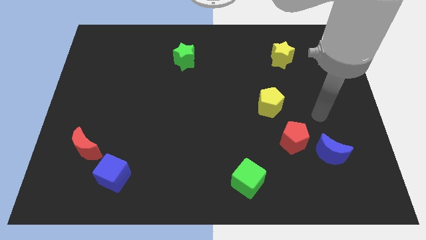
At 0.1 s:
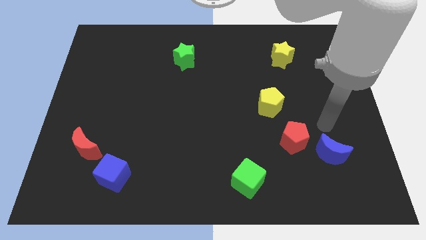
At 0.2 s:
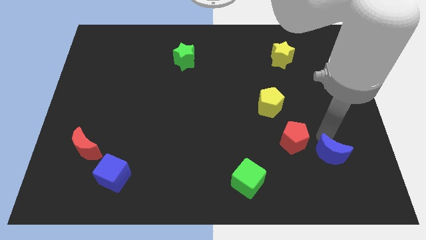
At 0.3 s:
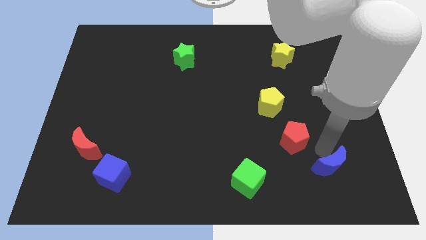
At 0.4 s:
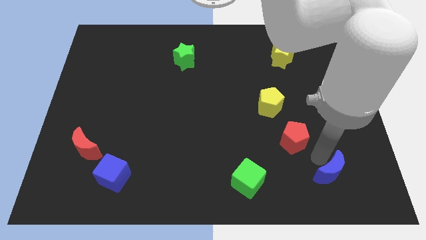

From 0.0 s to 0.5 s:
separate the red pentagon from the blue moon

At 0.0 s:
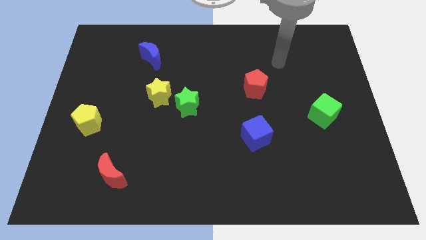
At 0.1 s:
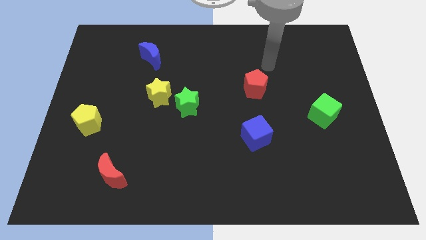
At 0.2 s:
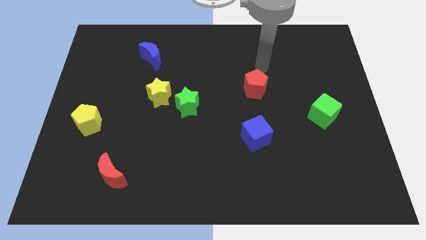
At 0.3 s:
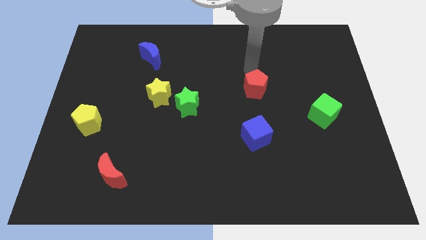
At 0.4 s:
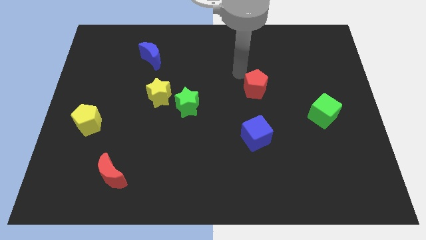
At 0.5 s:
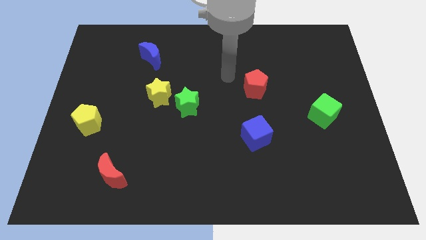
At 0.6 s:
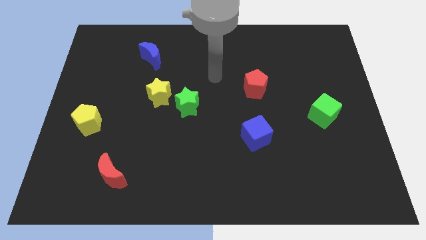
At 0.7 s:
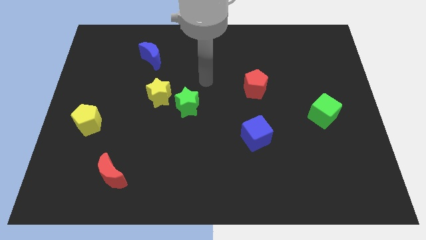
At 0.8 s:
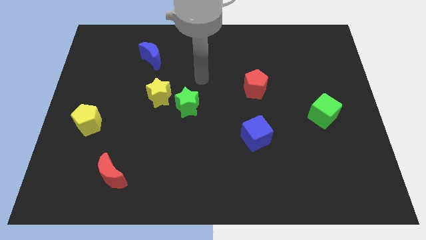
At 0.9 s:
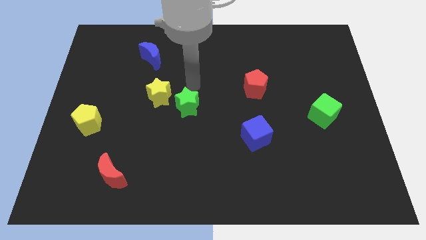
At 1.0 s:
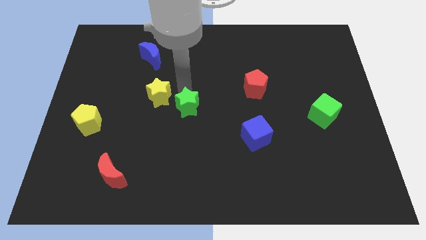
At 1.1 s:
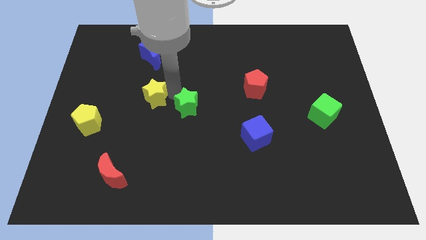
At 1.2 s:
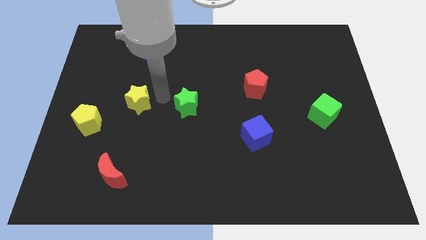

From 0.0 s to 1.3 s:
move the green star away from the yellow star

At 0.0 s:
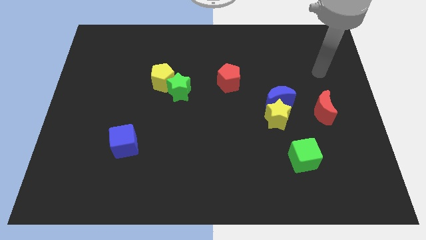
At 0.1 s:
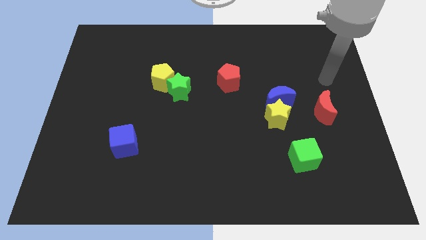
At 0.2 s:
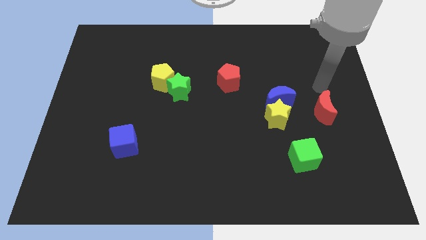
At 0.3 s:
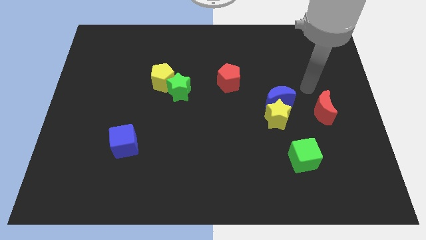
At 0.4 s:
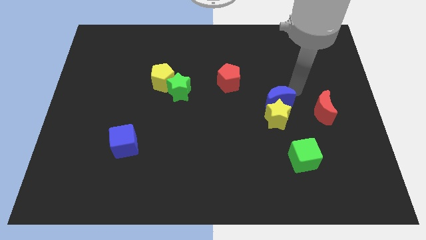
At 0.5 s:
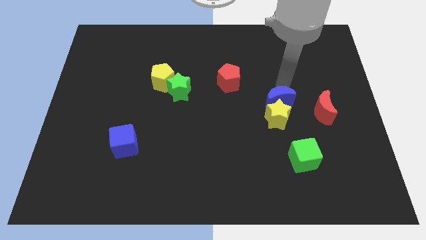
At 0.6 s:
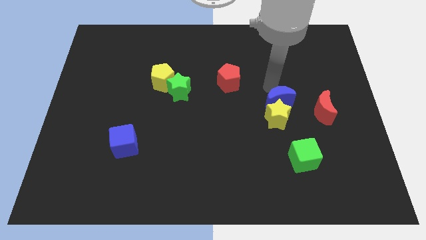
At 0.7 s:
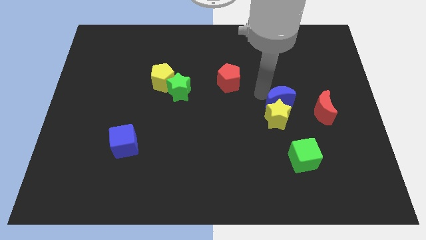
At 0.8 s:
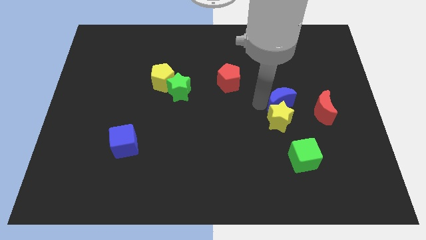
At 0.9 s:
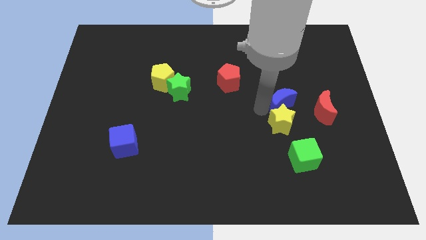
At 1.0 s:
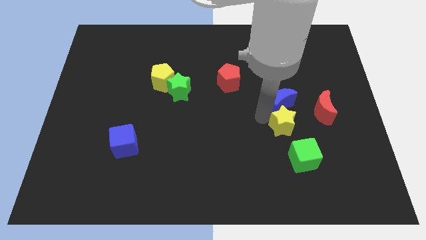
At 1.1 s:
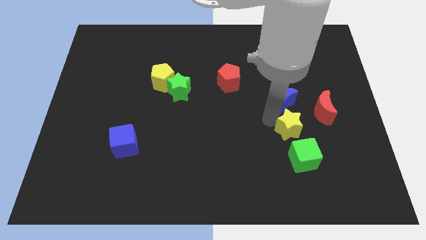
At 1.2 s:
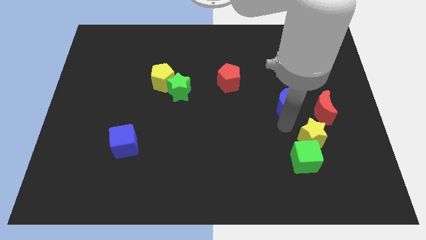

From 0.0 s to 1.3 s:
separate the blue moon from the yellow star

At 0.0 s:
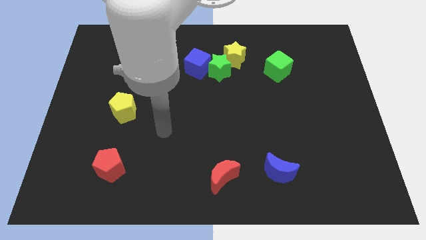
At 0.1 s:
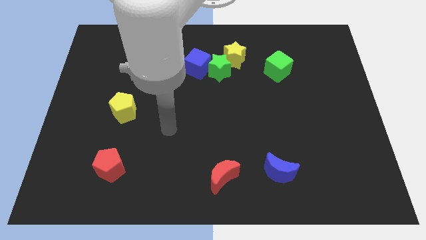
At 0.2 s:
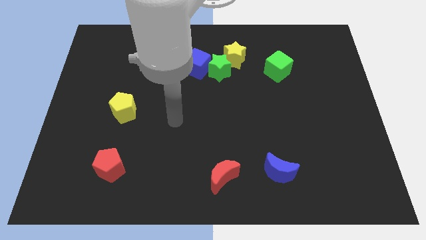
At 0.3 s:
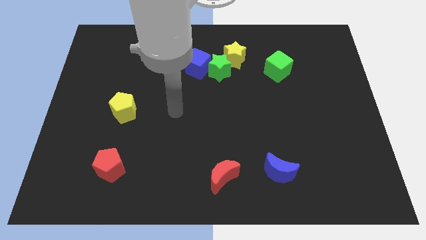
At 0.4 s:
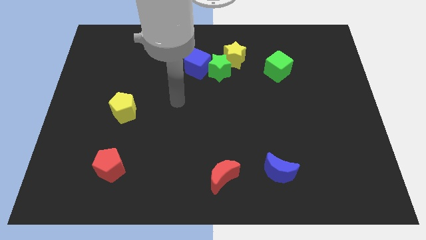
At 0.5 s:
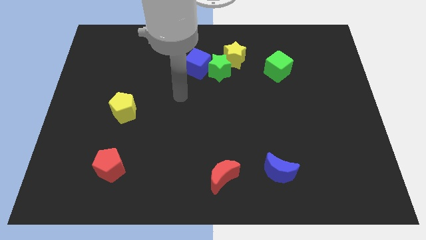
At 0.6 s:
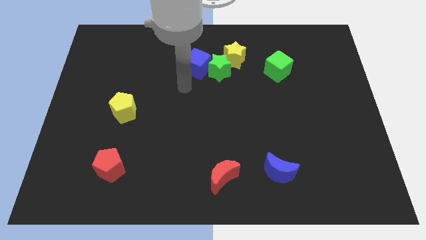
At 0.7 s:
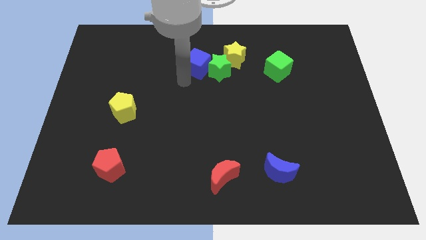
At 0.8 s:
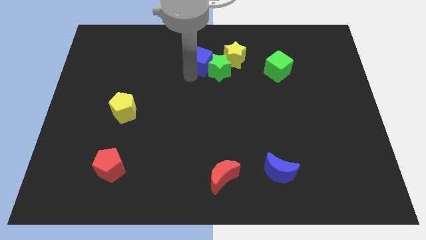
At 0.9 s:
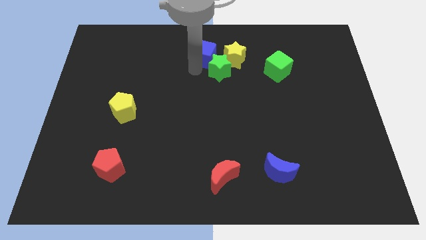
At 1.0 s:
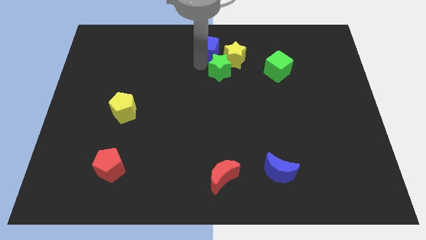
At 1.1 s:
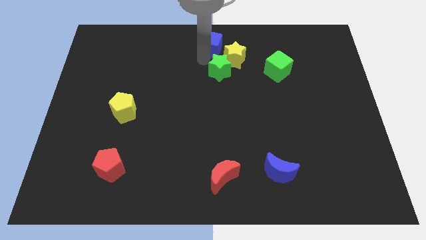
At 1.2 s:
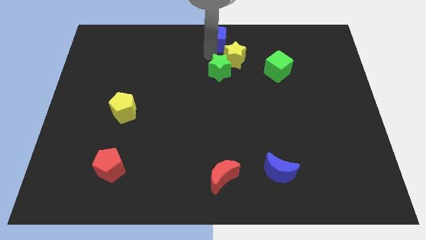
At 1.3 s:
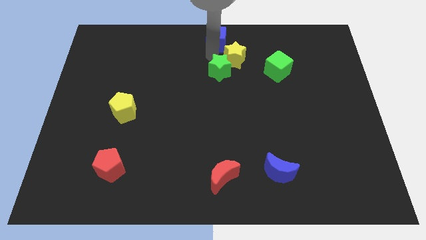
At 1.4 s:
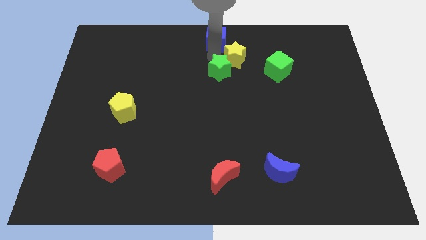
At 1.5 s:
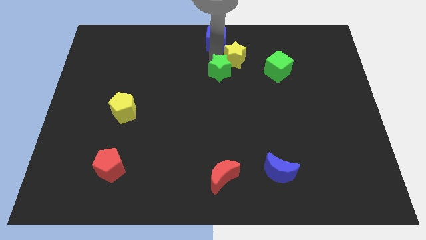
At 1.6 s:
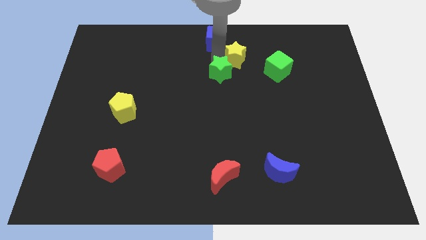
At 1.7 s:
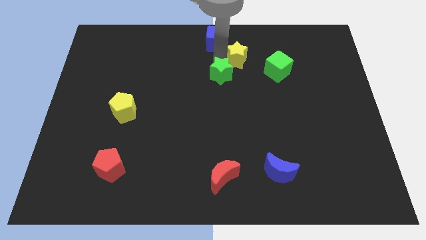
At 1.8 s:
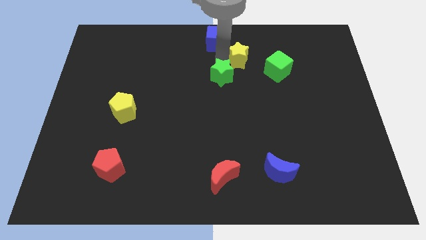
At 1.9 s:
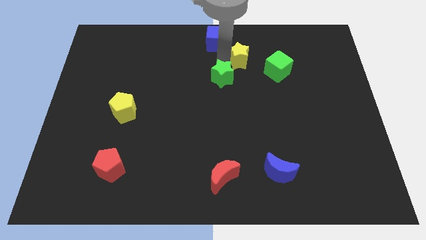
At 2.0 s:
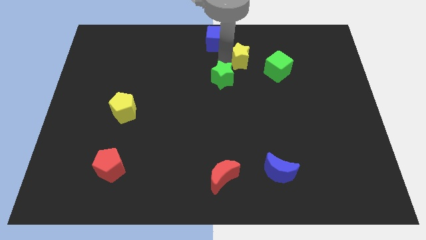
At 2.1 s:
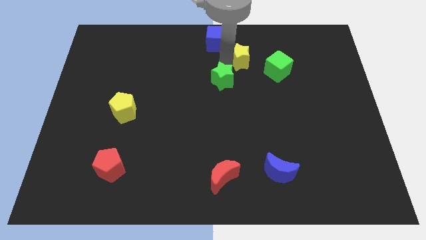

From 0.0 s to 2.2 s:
separate the green star from the yellow star and blue cube

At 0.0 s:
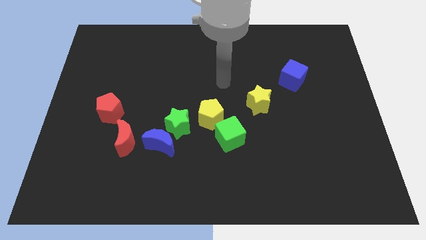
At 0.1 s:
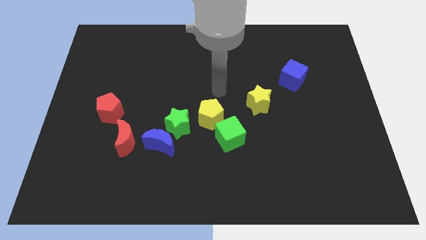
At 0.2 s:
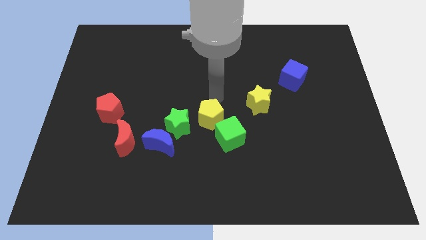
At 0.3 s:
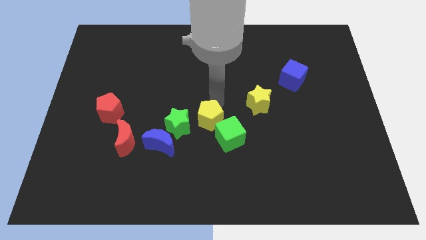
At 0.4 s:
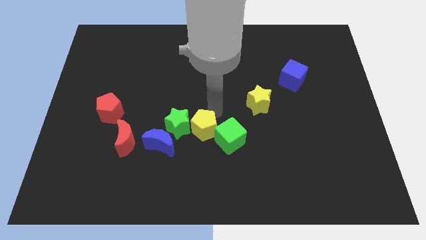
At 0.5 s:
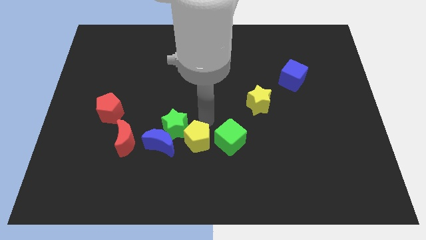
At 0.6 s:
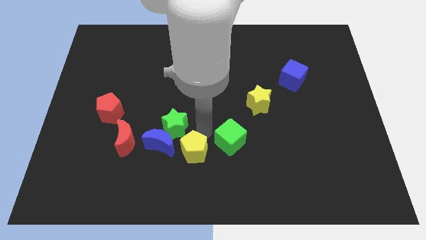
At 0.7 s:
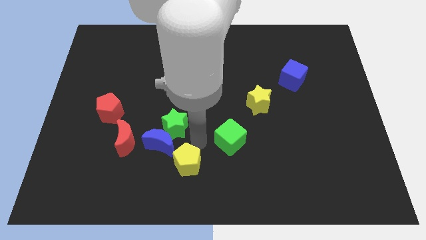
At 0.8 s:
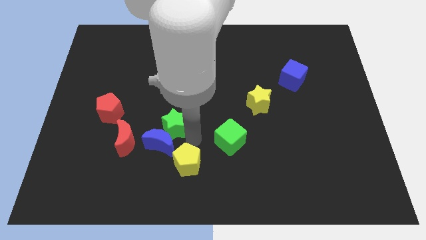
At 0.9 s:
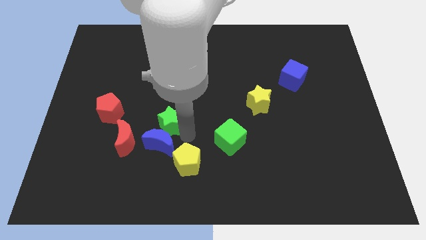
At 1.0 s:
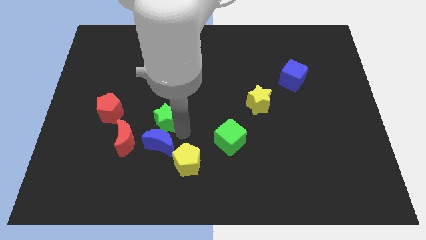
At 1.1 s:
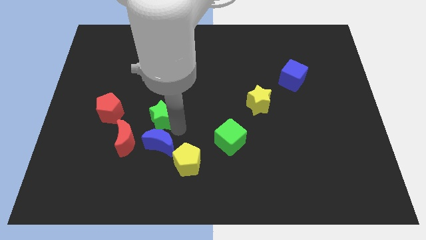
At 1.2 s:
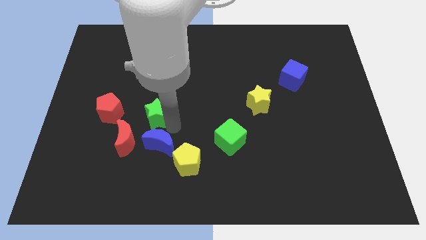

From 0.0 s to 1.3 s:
separate the green star from the blue moon and yellow pentagon

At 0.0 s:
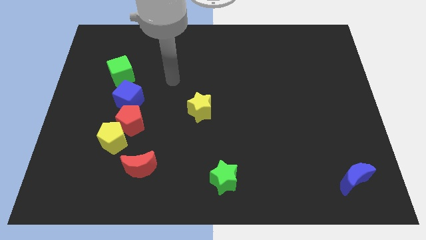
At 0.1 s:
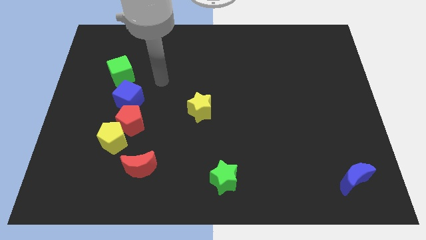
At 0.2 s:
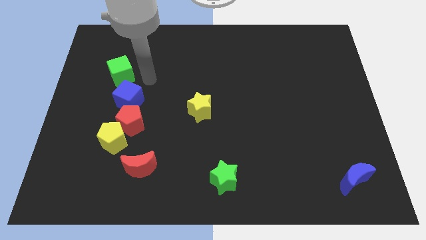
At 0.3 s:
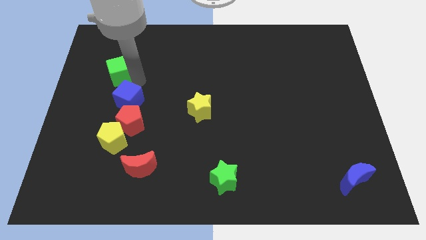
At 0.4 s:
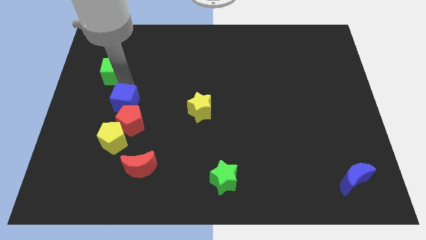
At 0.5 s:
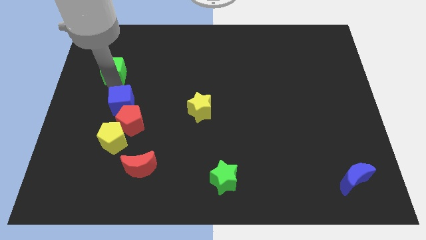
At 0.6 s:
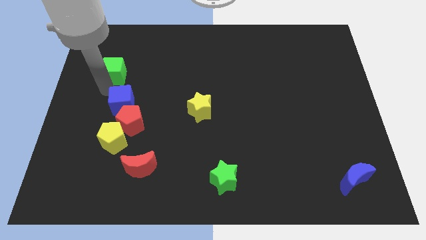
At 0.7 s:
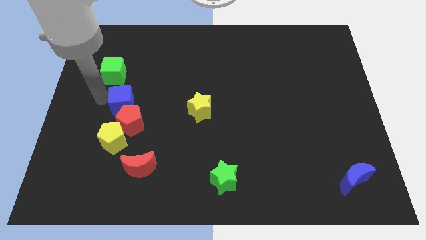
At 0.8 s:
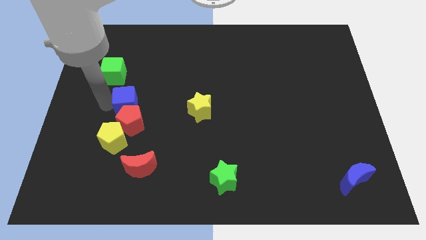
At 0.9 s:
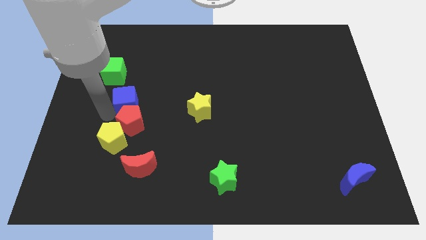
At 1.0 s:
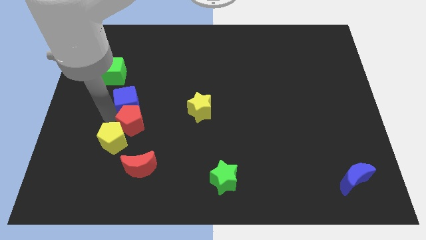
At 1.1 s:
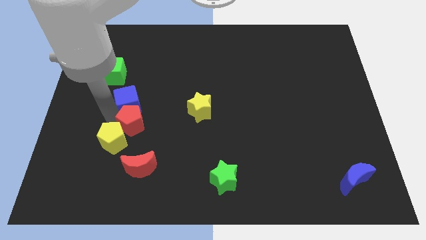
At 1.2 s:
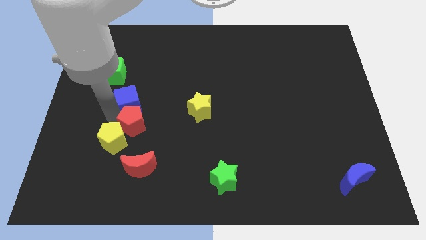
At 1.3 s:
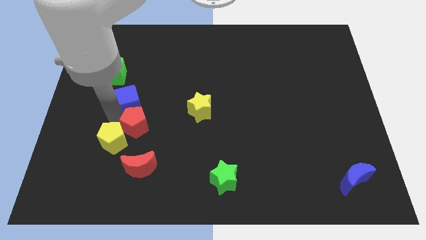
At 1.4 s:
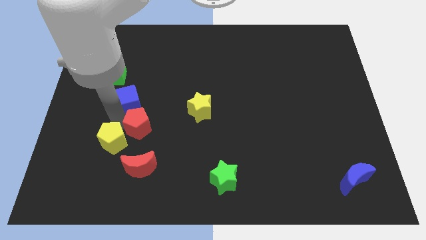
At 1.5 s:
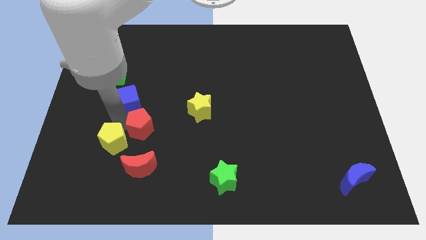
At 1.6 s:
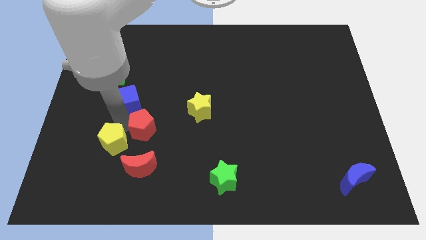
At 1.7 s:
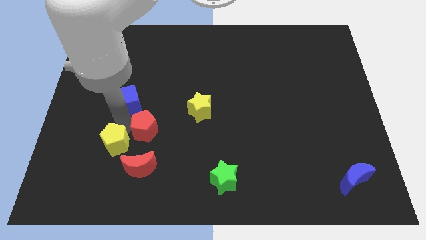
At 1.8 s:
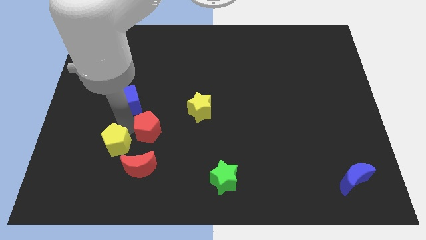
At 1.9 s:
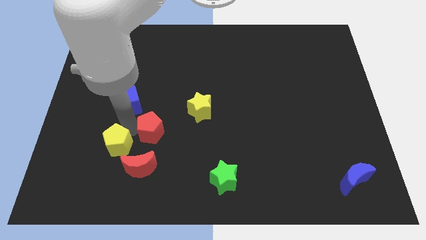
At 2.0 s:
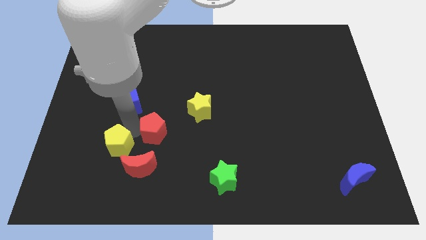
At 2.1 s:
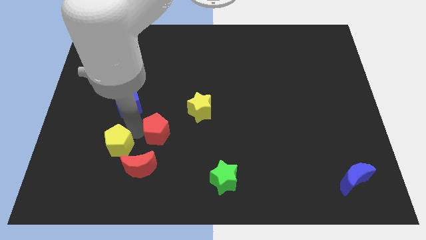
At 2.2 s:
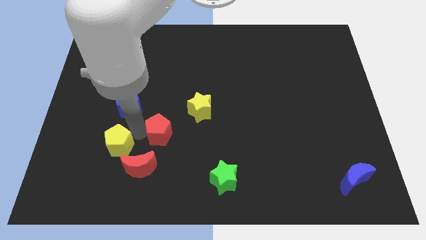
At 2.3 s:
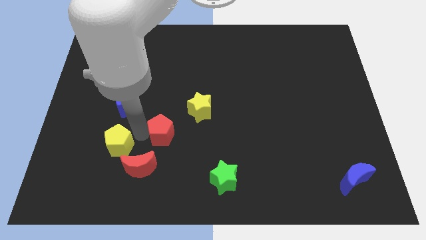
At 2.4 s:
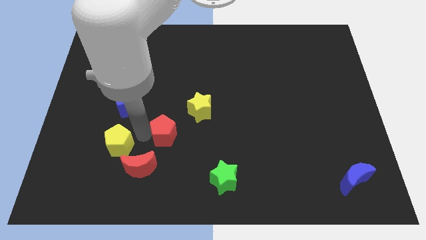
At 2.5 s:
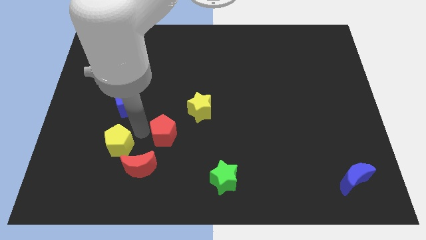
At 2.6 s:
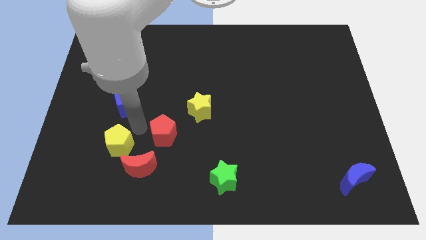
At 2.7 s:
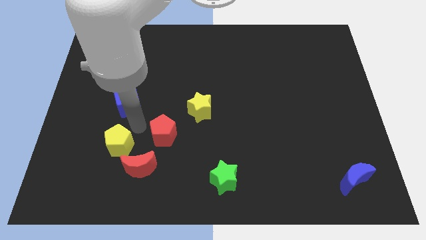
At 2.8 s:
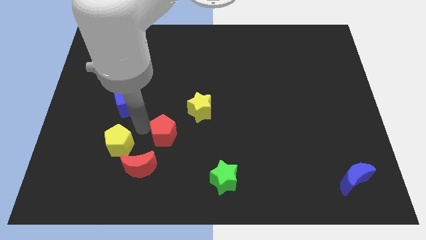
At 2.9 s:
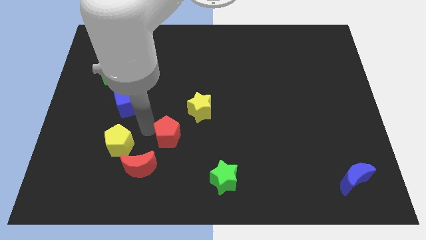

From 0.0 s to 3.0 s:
pull the red pentagon apart from the yellow pentagon and blue cube
